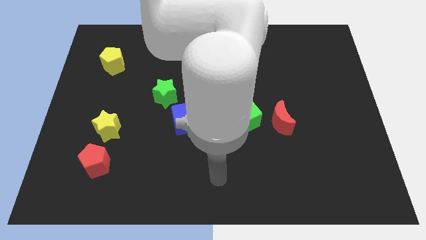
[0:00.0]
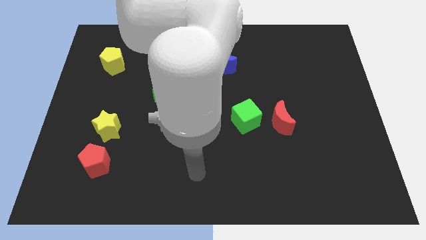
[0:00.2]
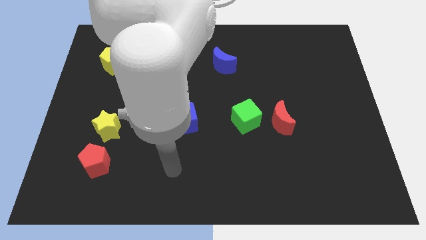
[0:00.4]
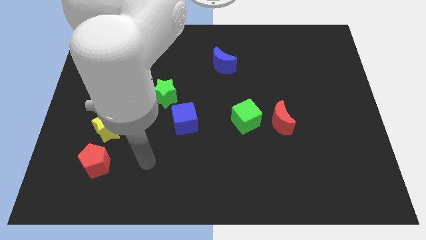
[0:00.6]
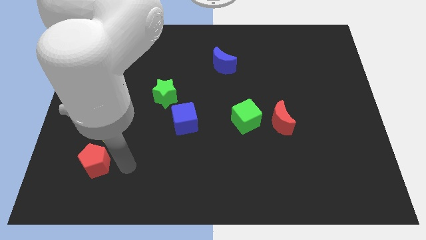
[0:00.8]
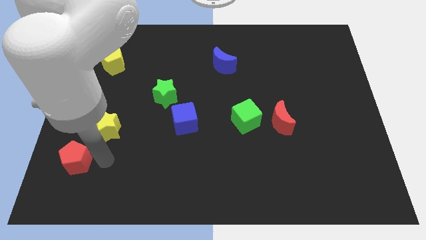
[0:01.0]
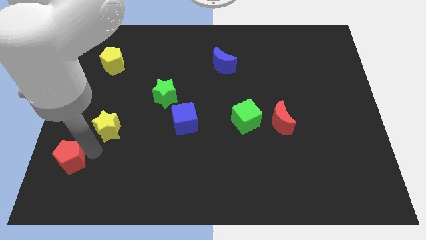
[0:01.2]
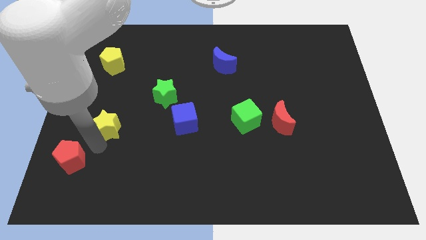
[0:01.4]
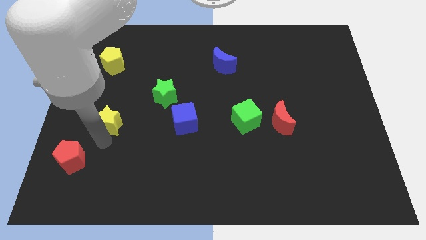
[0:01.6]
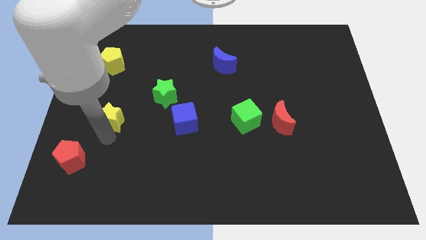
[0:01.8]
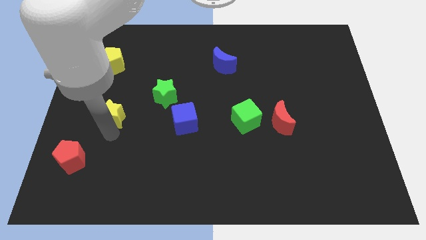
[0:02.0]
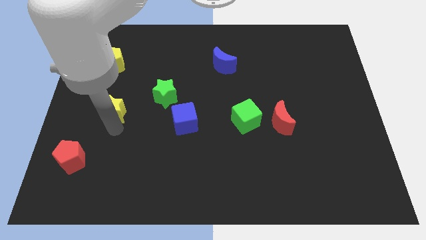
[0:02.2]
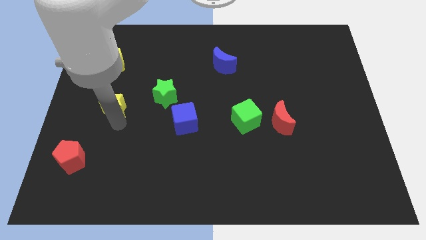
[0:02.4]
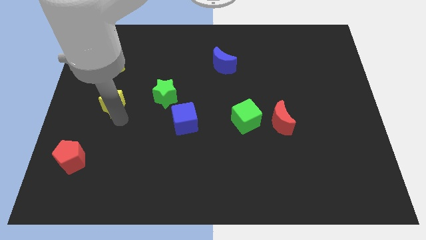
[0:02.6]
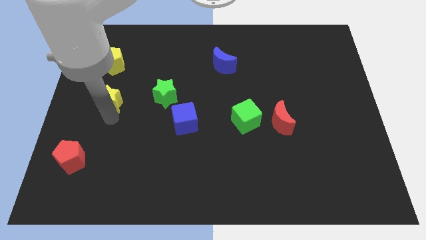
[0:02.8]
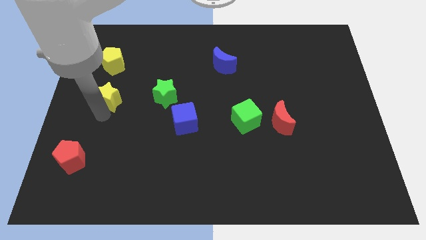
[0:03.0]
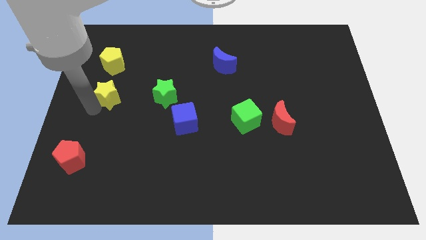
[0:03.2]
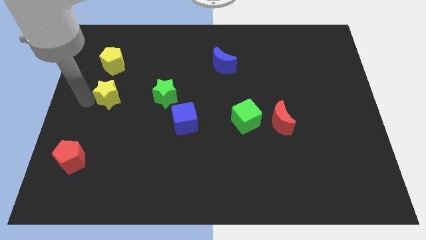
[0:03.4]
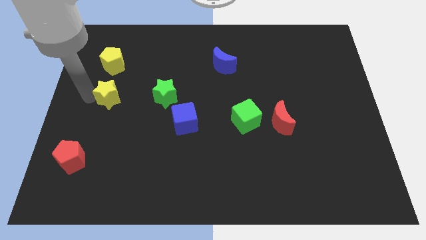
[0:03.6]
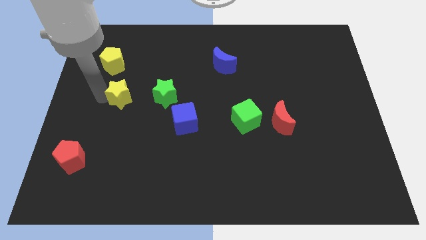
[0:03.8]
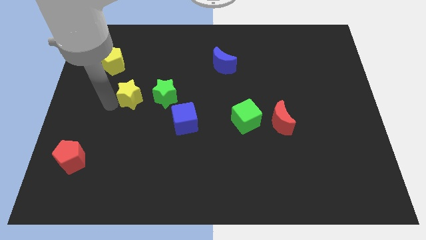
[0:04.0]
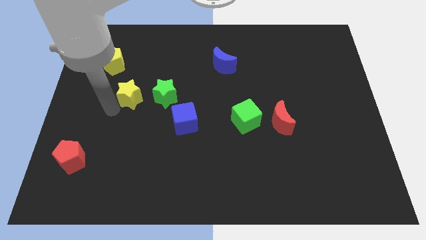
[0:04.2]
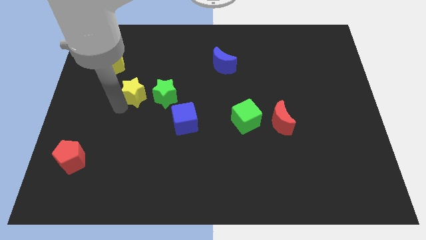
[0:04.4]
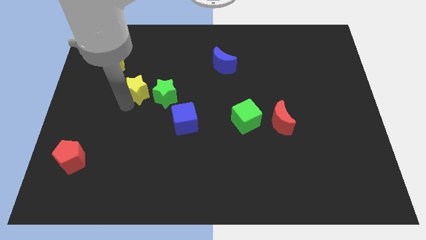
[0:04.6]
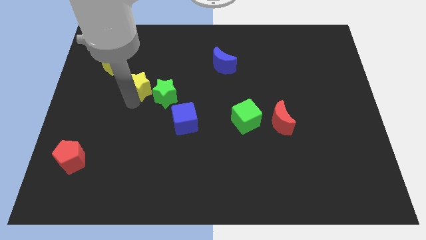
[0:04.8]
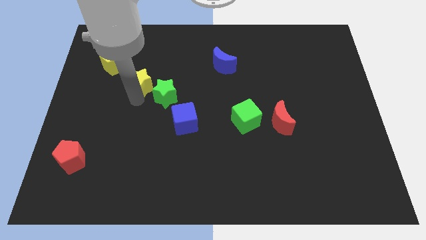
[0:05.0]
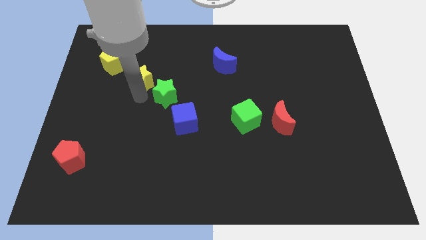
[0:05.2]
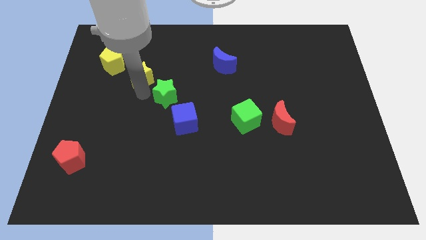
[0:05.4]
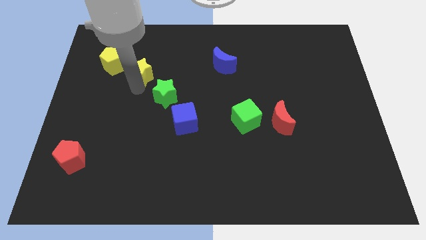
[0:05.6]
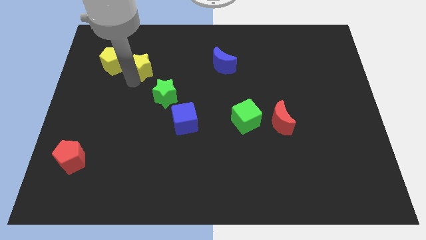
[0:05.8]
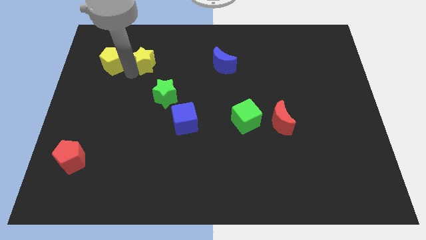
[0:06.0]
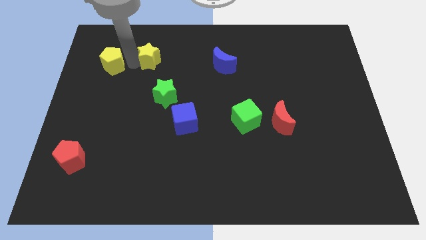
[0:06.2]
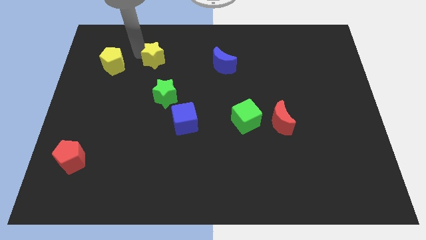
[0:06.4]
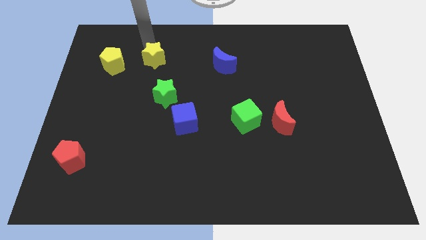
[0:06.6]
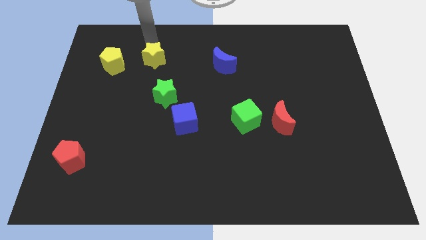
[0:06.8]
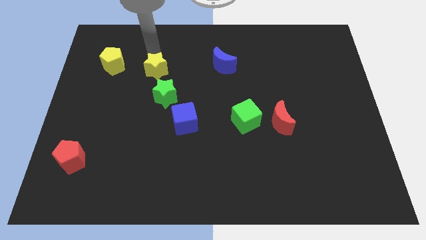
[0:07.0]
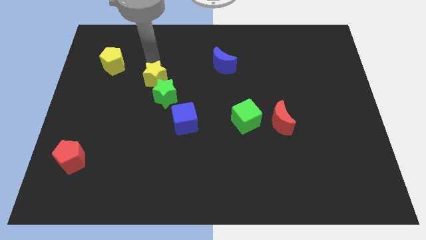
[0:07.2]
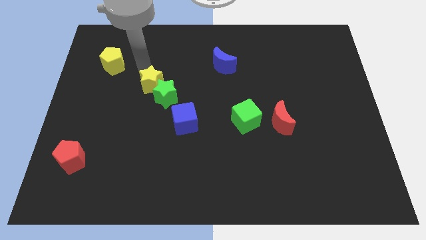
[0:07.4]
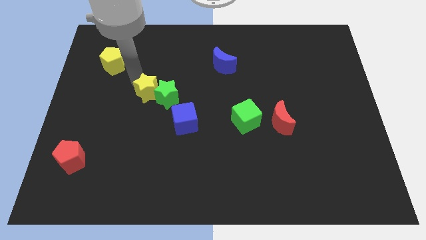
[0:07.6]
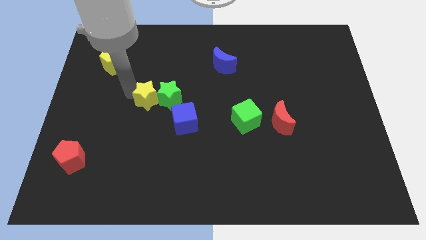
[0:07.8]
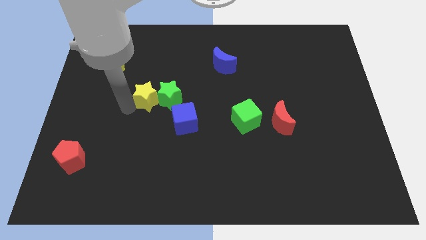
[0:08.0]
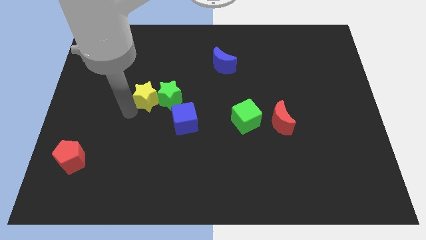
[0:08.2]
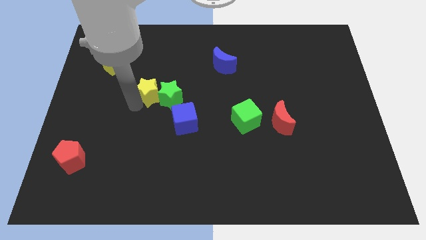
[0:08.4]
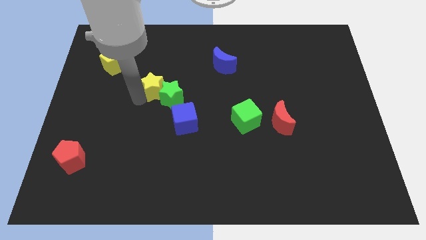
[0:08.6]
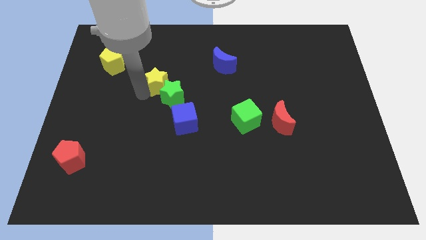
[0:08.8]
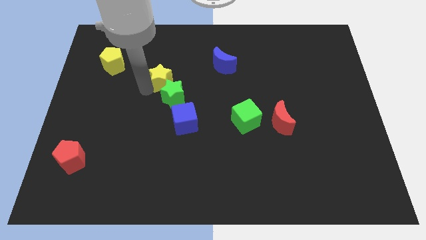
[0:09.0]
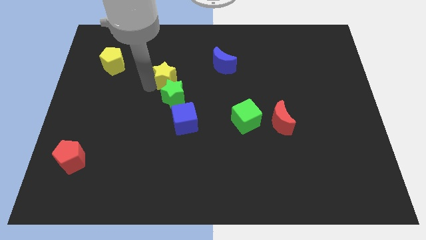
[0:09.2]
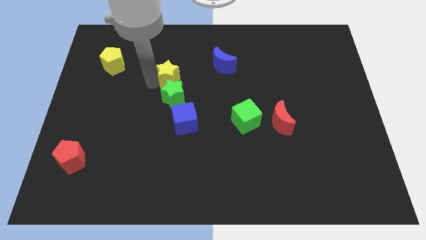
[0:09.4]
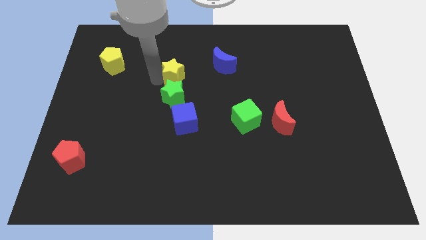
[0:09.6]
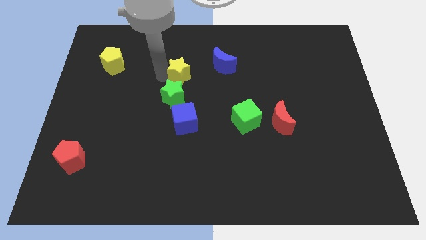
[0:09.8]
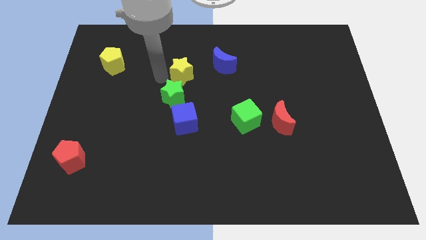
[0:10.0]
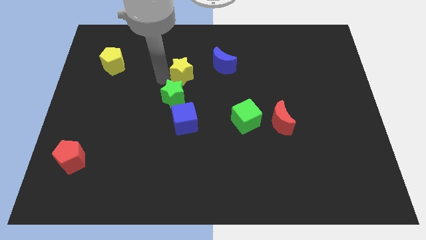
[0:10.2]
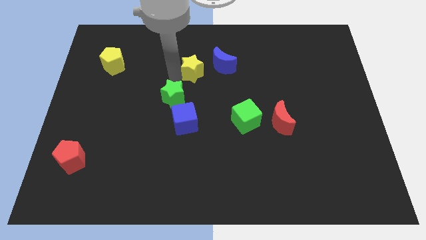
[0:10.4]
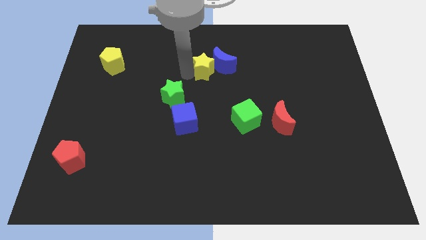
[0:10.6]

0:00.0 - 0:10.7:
put the yellow star close to the blue moon

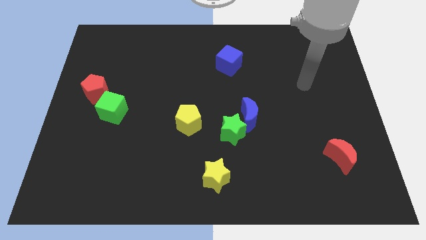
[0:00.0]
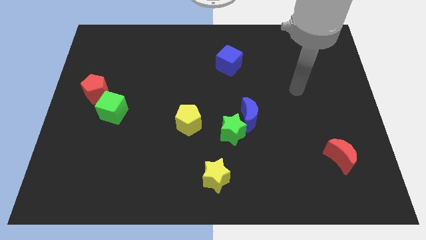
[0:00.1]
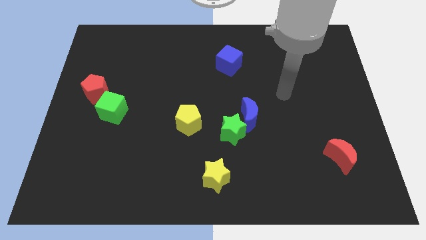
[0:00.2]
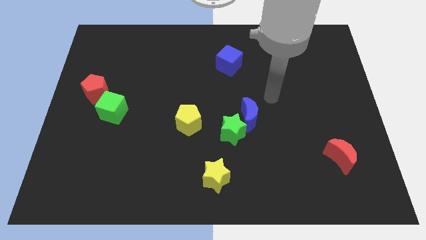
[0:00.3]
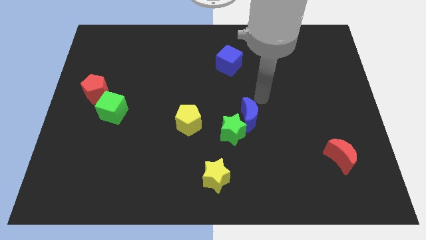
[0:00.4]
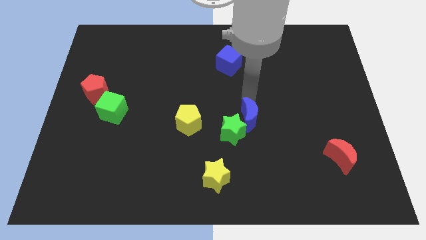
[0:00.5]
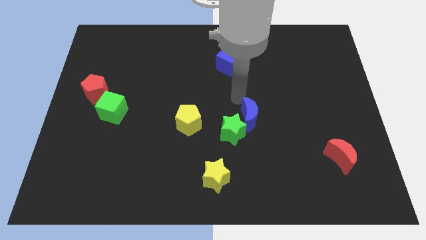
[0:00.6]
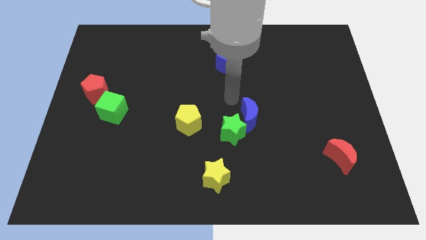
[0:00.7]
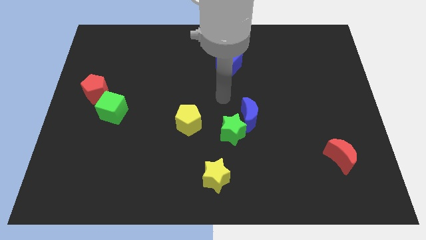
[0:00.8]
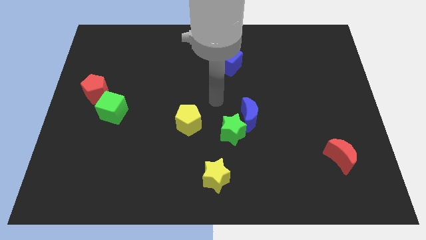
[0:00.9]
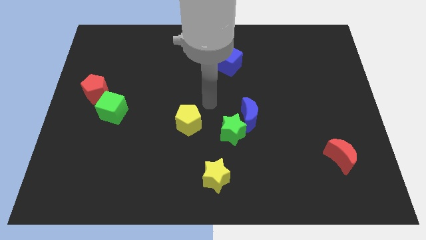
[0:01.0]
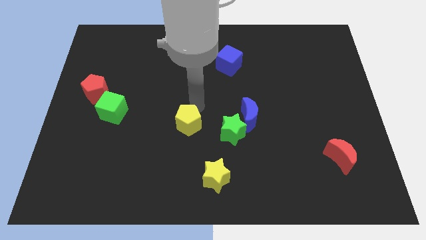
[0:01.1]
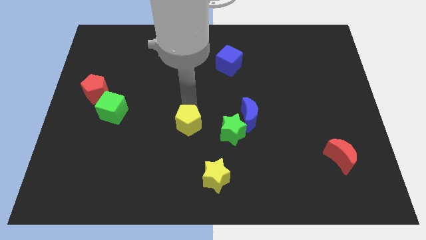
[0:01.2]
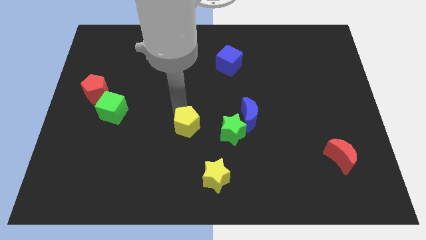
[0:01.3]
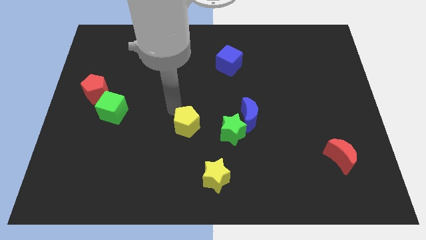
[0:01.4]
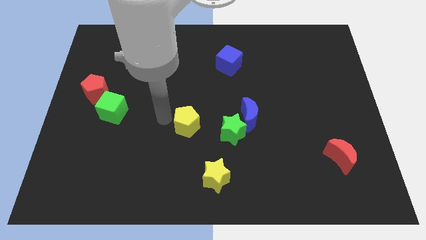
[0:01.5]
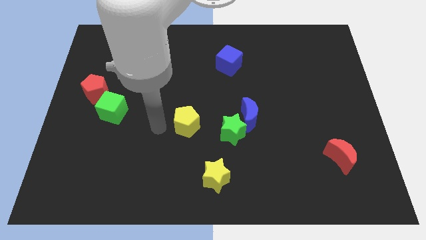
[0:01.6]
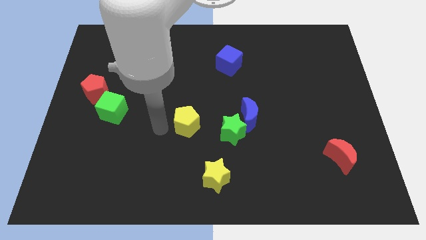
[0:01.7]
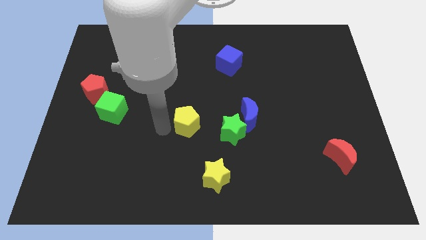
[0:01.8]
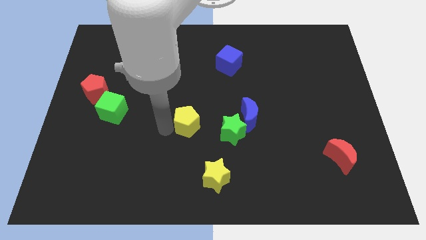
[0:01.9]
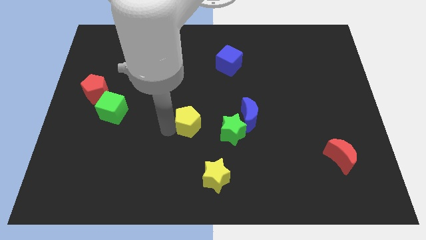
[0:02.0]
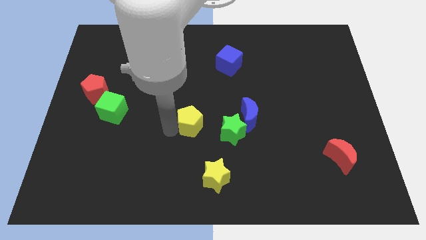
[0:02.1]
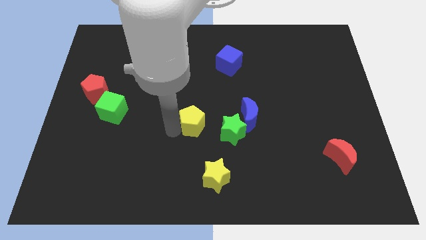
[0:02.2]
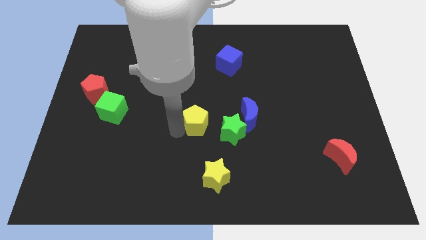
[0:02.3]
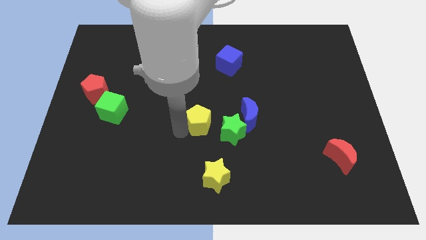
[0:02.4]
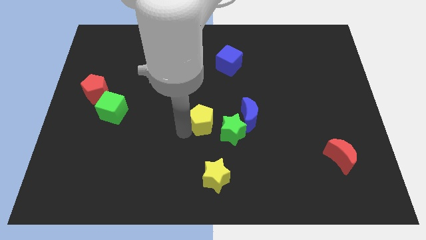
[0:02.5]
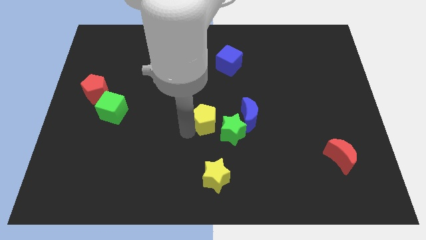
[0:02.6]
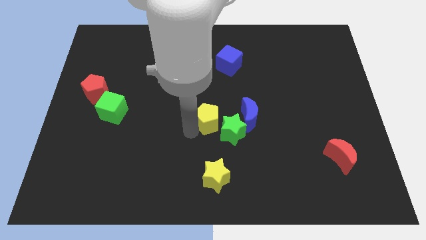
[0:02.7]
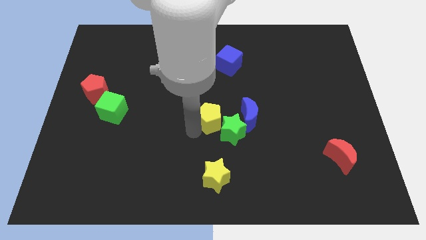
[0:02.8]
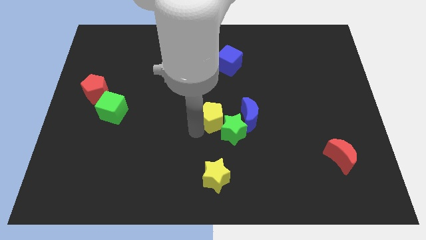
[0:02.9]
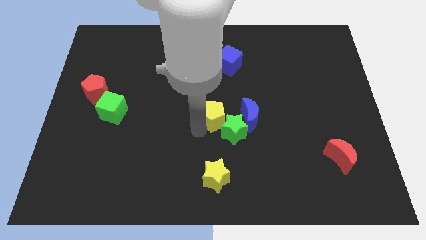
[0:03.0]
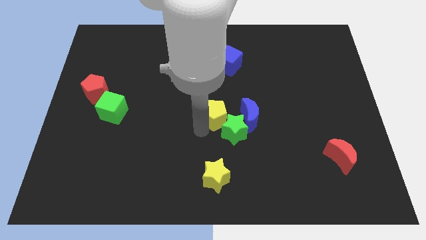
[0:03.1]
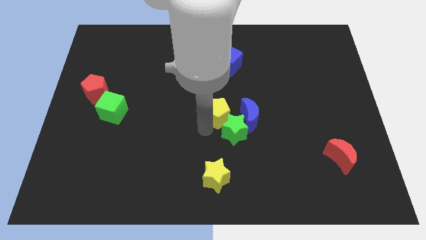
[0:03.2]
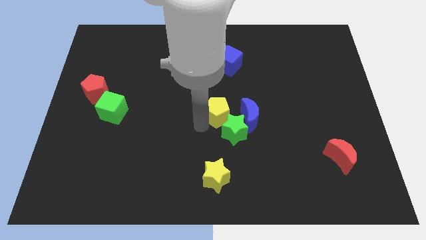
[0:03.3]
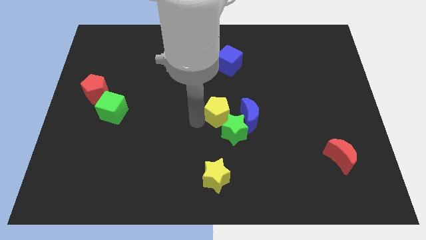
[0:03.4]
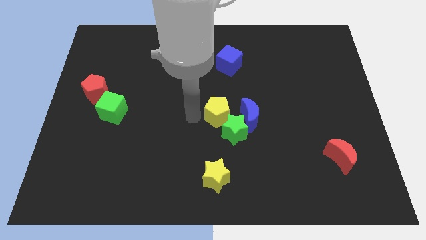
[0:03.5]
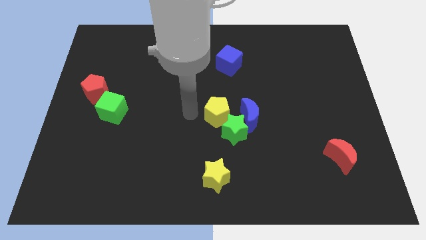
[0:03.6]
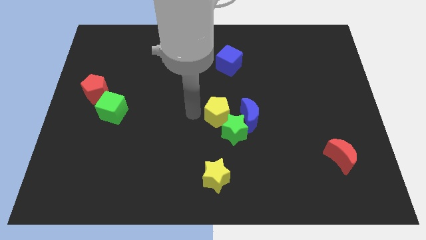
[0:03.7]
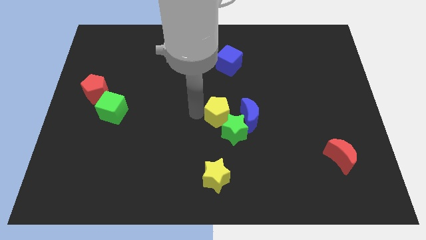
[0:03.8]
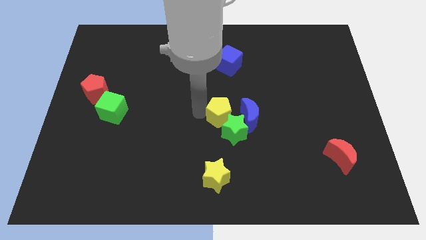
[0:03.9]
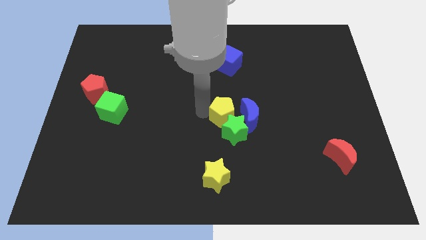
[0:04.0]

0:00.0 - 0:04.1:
move the yellow pentagon close to the blue moon
